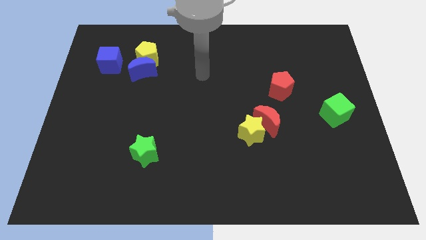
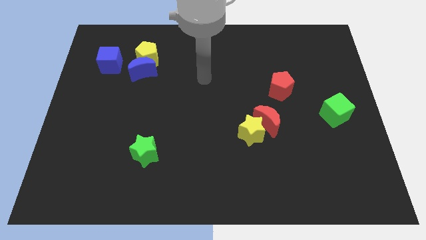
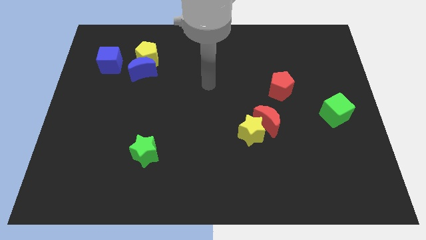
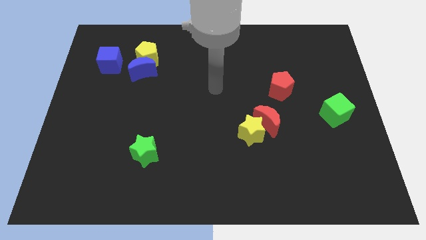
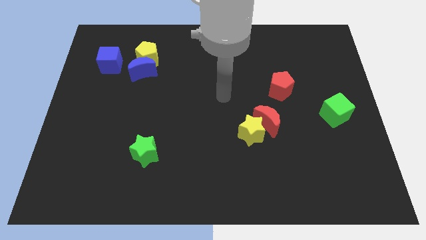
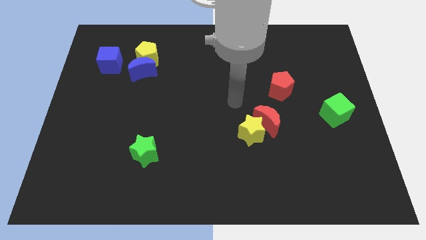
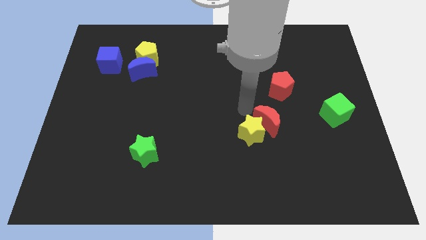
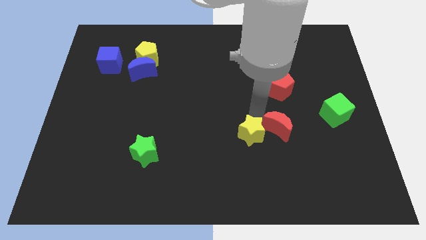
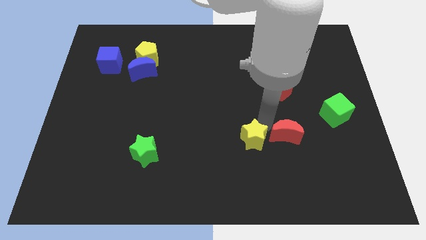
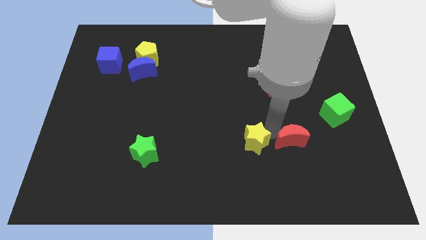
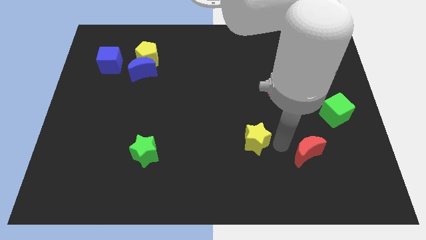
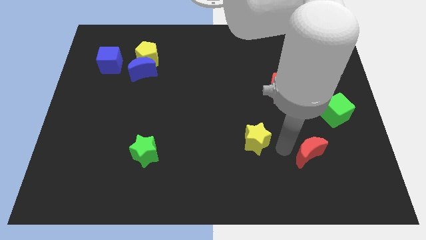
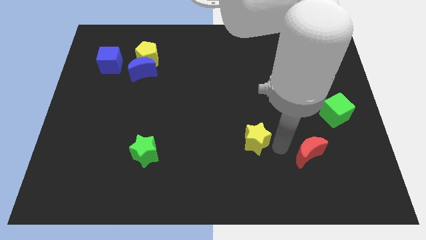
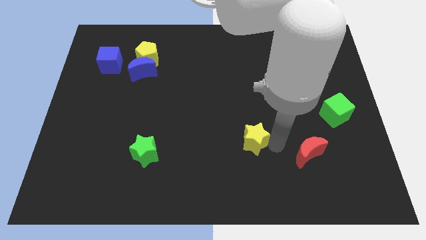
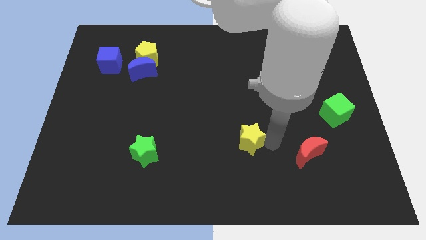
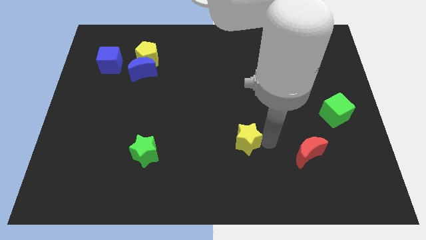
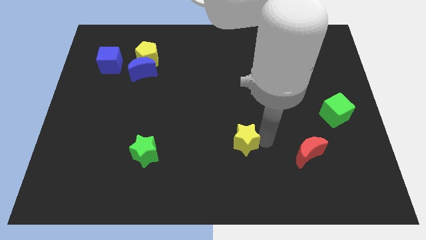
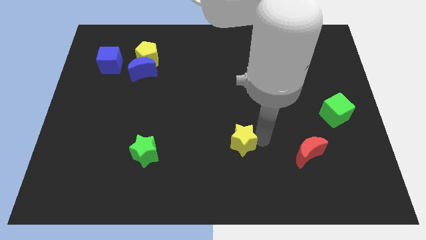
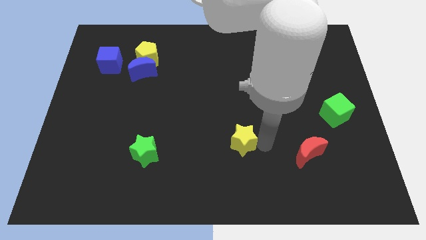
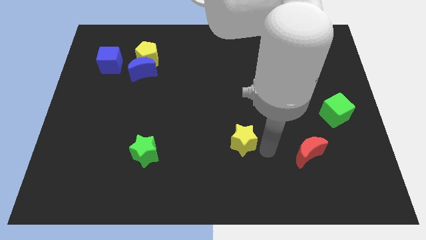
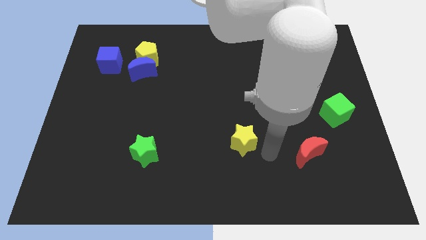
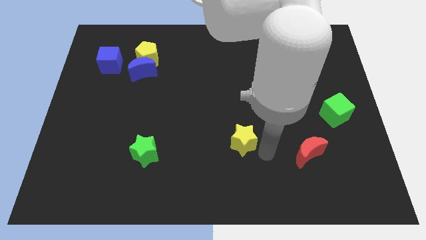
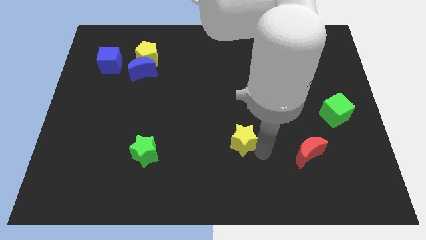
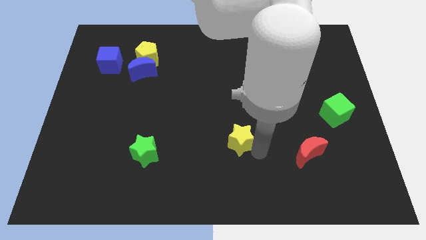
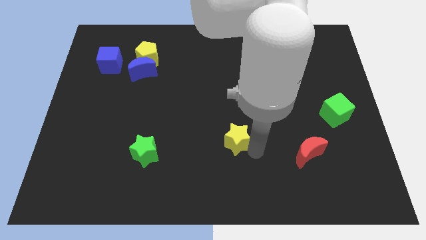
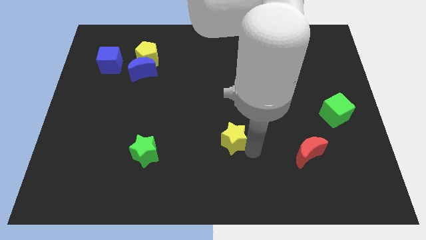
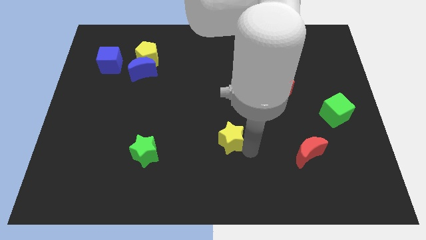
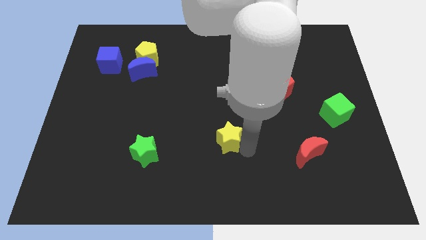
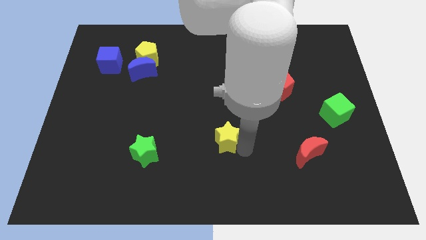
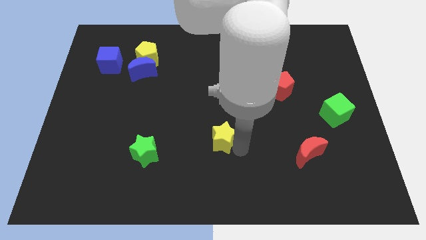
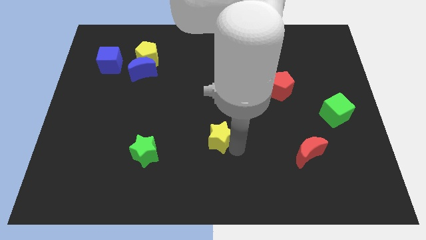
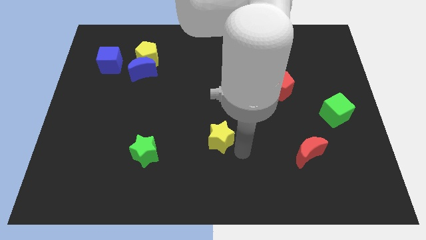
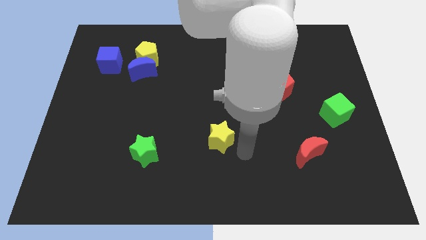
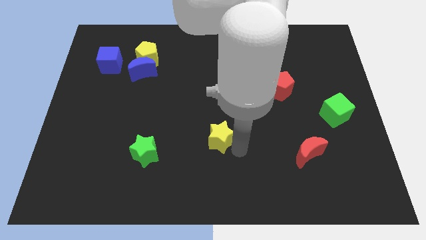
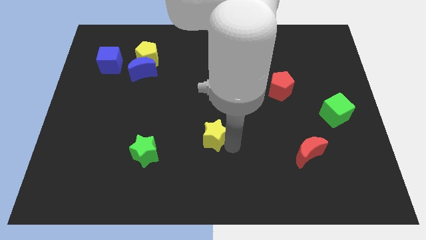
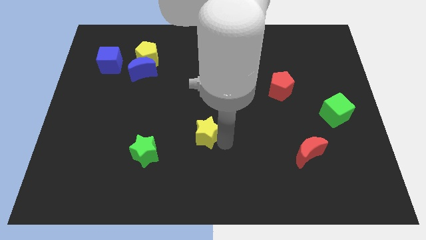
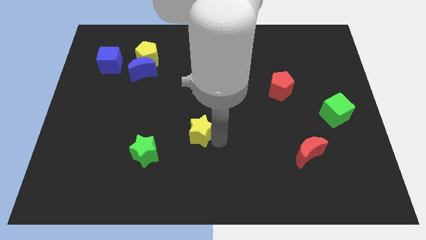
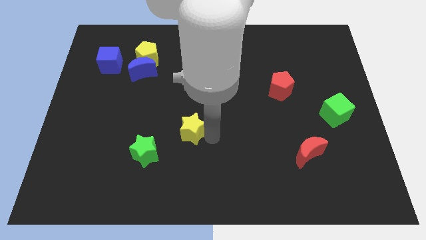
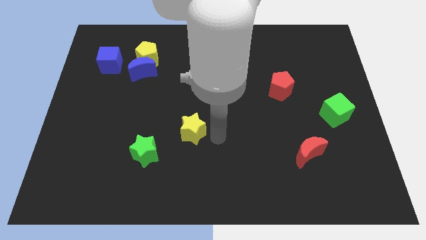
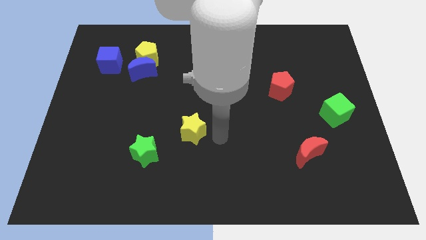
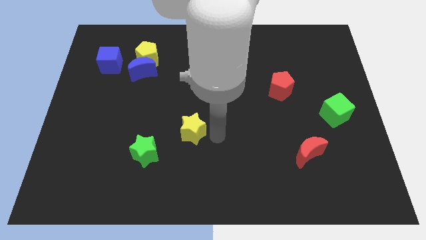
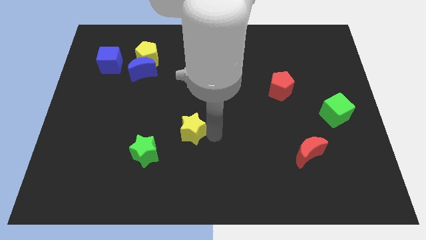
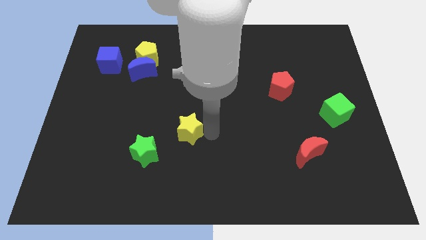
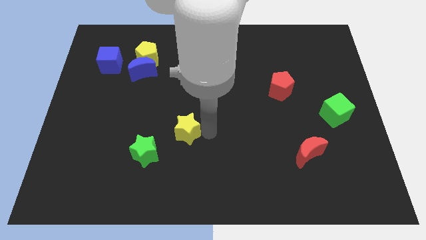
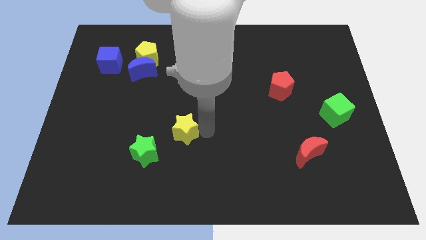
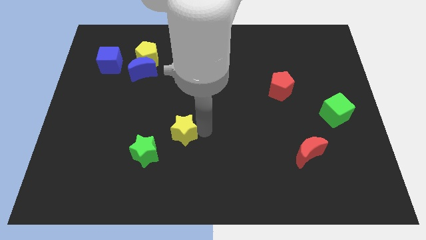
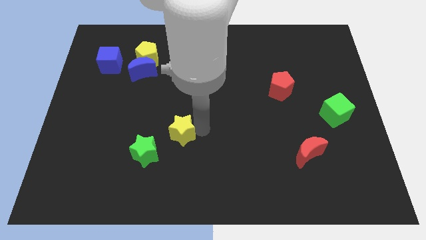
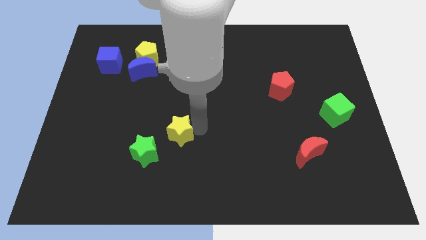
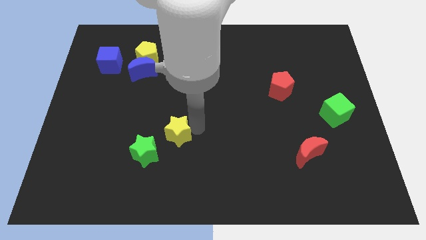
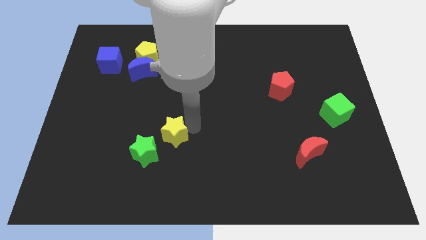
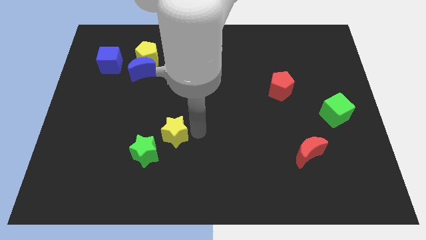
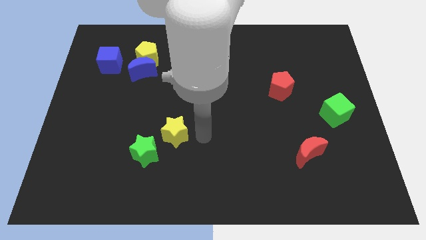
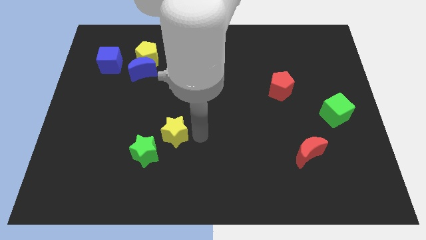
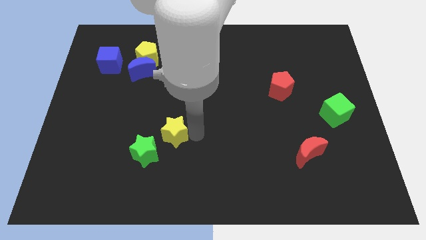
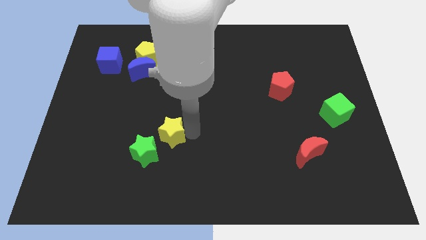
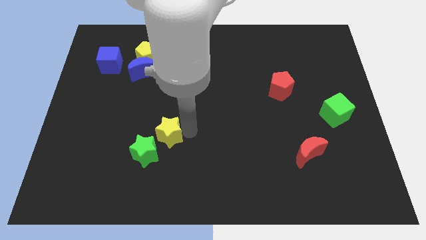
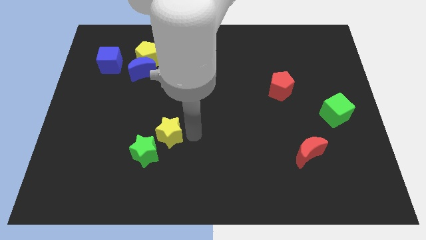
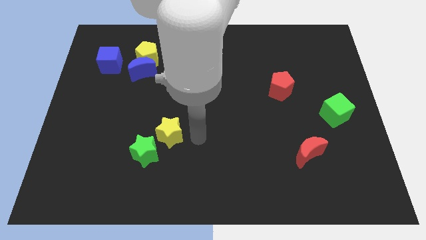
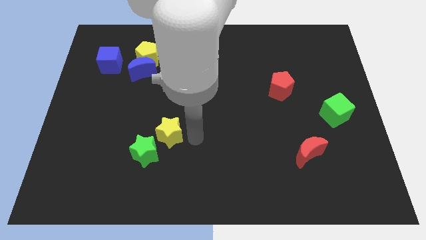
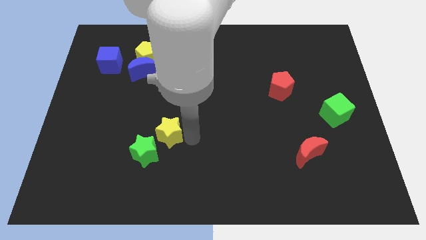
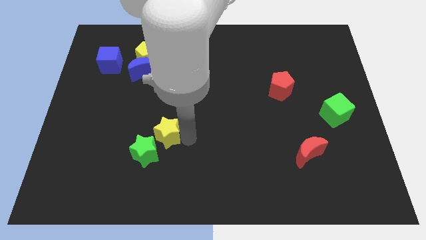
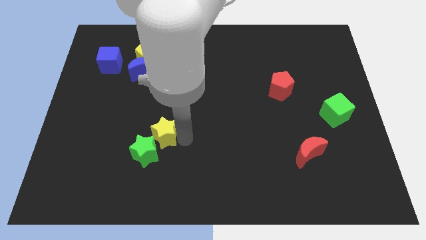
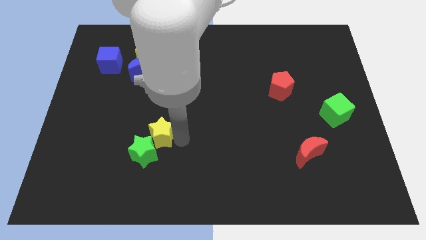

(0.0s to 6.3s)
slide the yellow star left

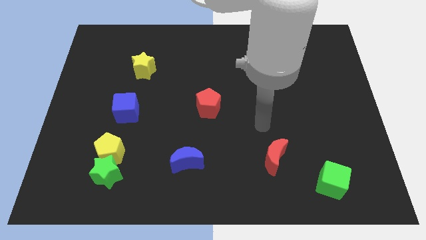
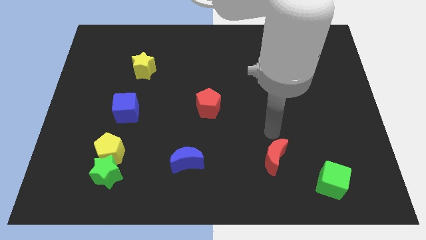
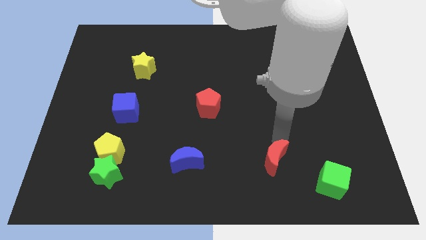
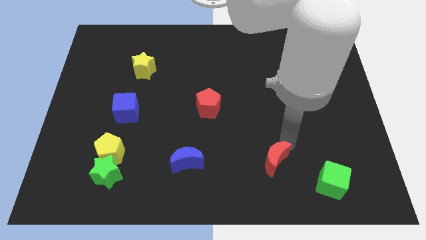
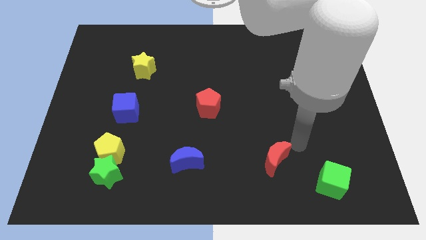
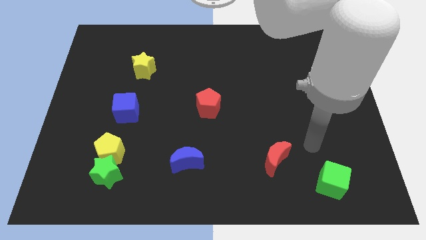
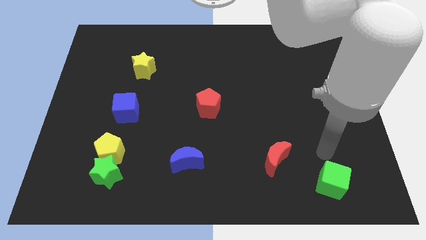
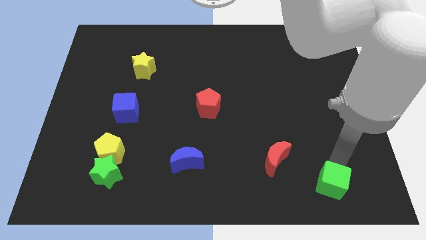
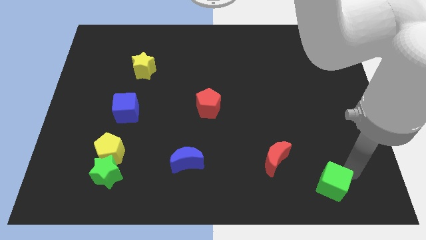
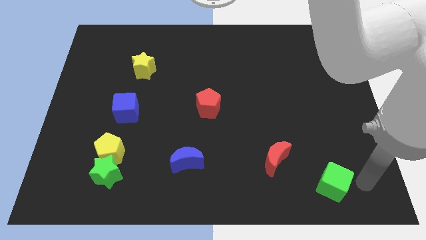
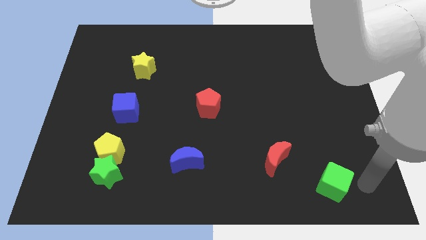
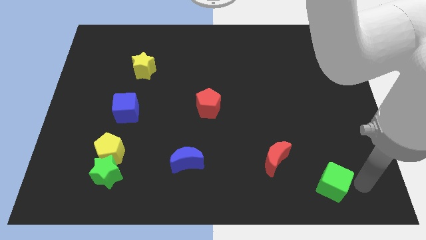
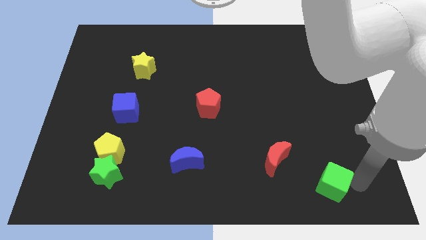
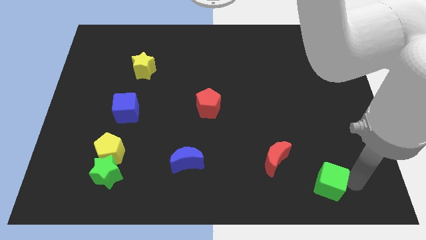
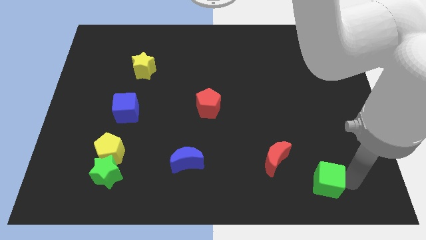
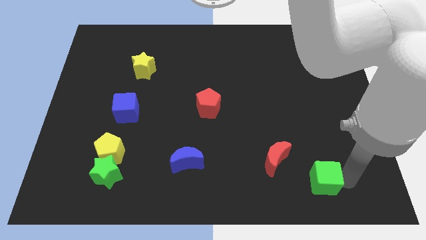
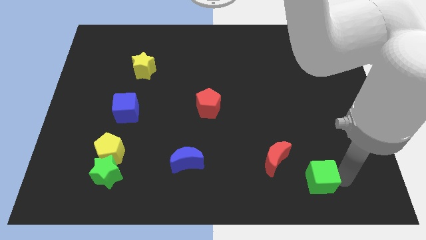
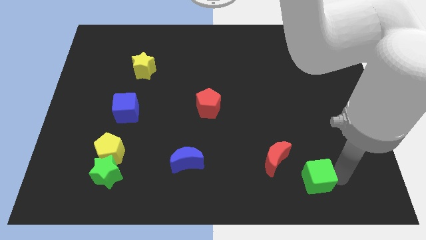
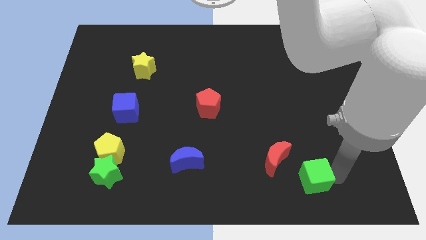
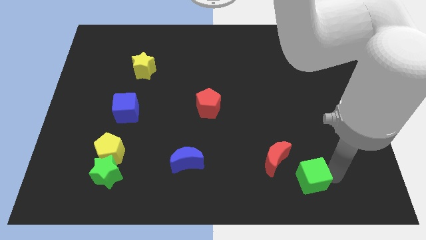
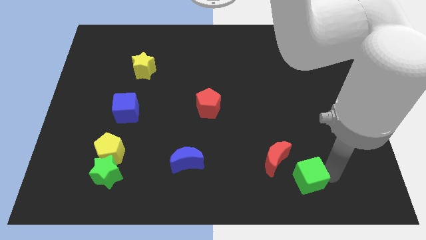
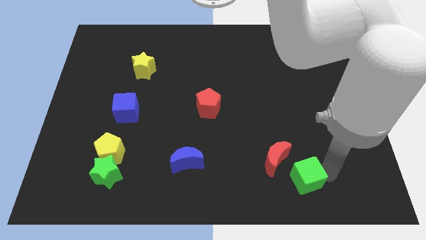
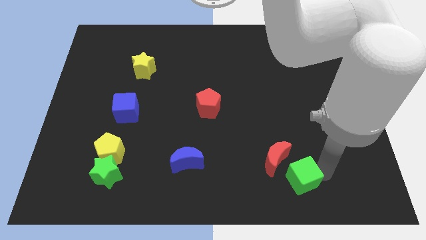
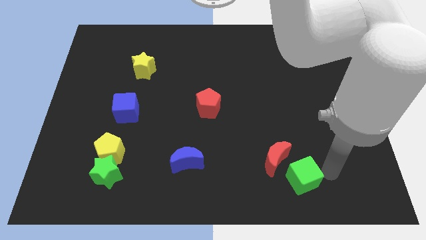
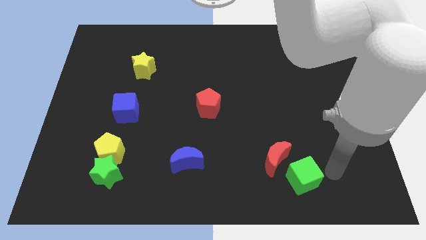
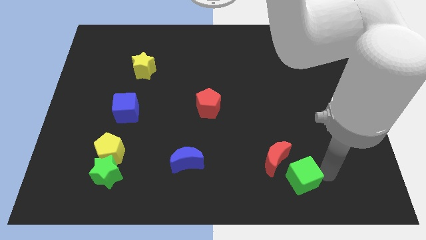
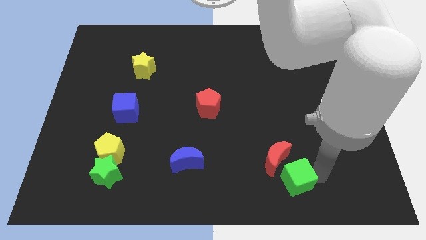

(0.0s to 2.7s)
slightly move the green cube left
